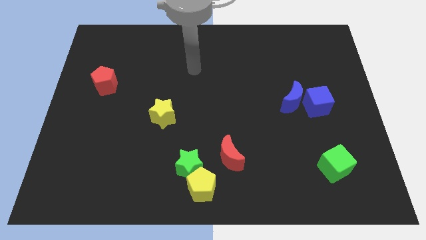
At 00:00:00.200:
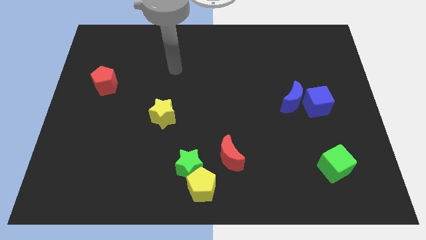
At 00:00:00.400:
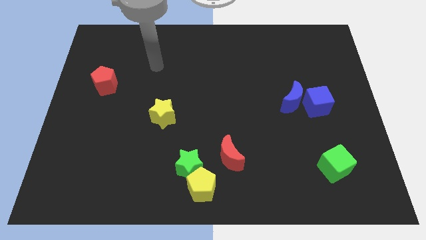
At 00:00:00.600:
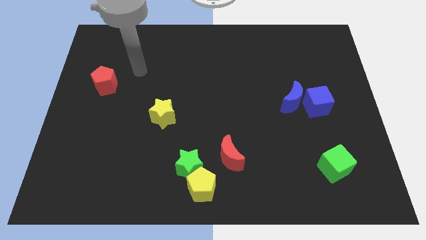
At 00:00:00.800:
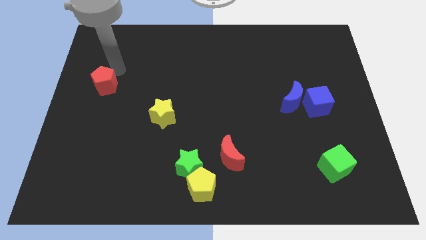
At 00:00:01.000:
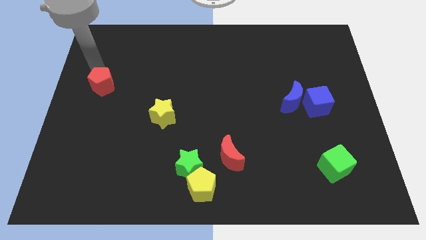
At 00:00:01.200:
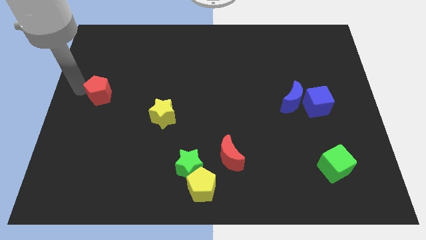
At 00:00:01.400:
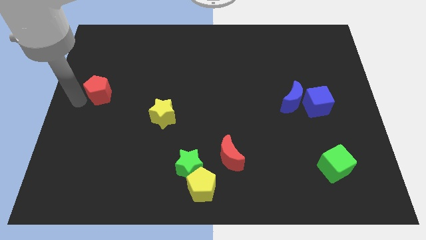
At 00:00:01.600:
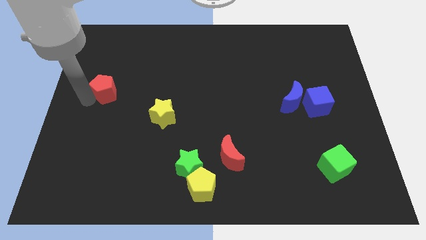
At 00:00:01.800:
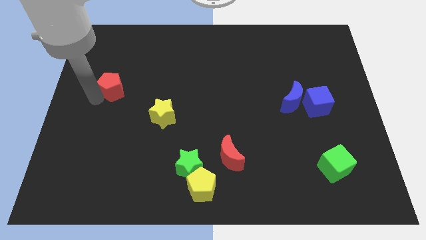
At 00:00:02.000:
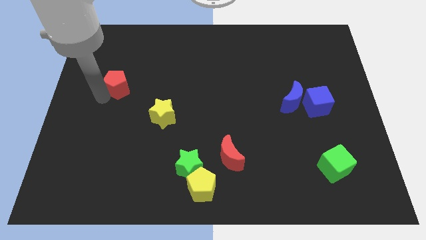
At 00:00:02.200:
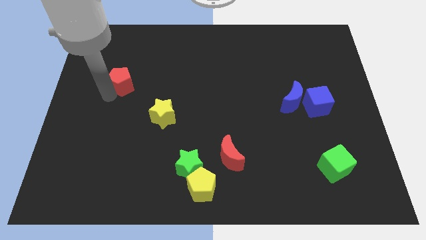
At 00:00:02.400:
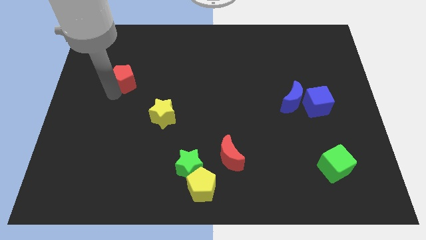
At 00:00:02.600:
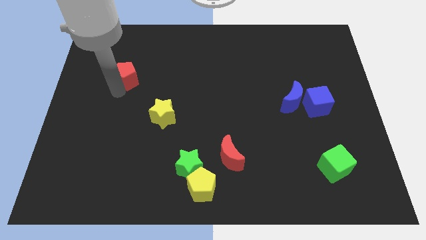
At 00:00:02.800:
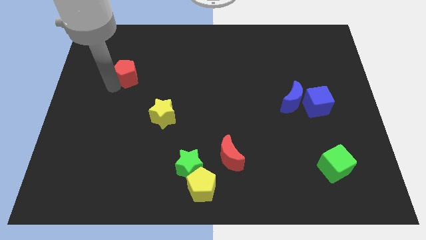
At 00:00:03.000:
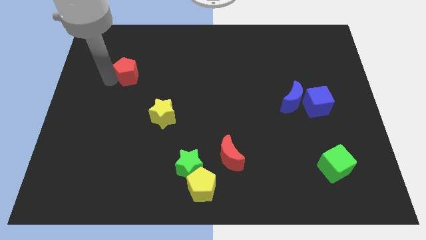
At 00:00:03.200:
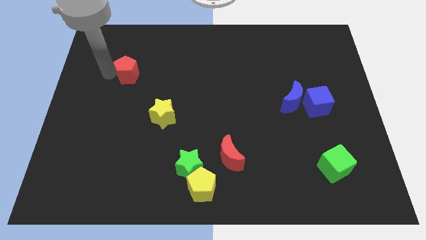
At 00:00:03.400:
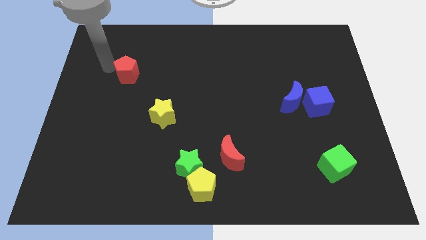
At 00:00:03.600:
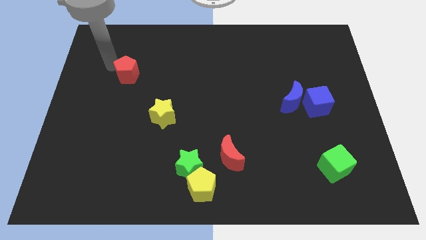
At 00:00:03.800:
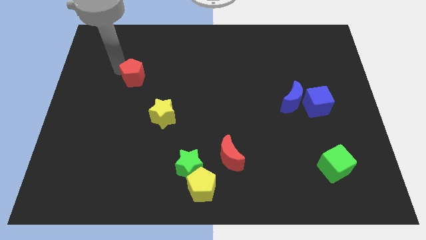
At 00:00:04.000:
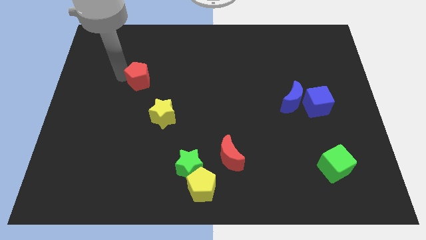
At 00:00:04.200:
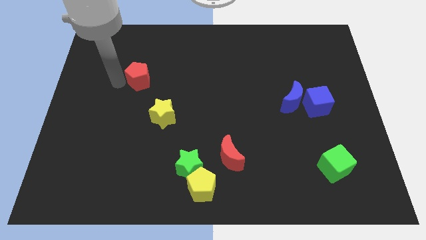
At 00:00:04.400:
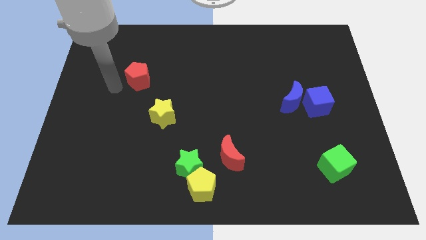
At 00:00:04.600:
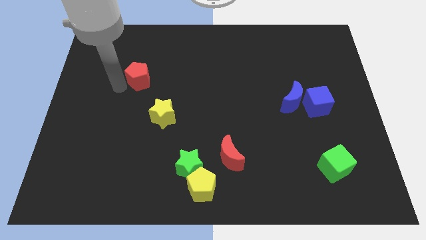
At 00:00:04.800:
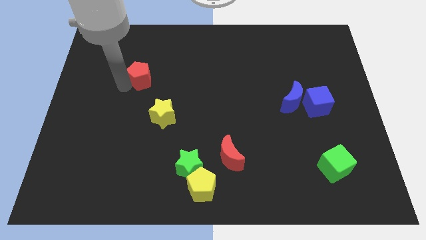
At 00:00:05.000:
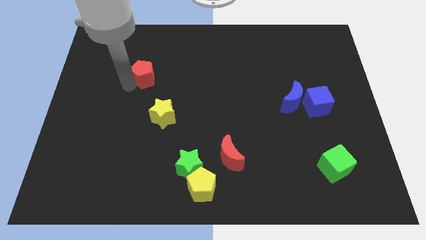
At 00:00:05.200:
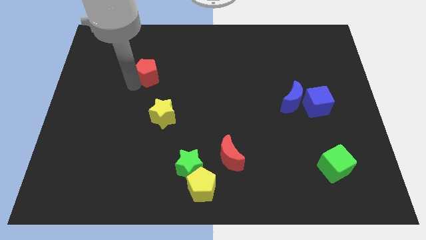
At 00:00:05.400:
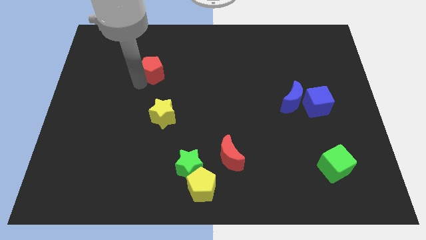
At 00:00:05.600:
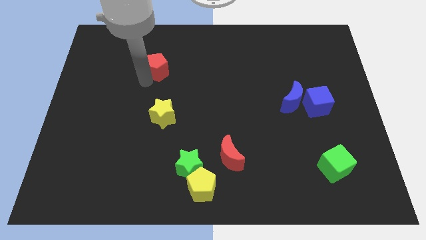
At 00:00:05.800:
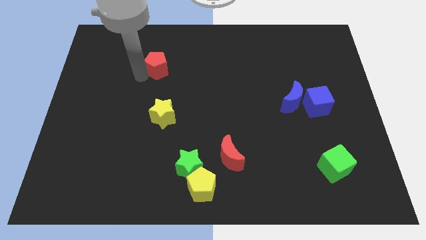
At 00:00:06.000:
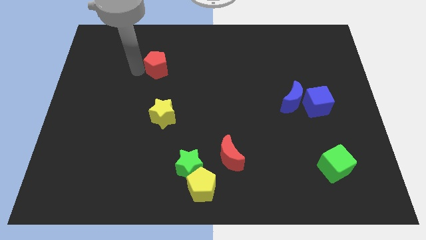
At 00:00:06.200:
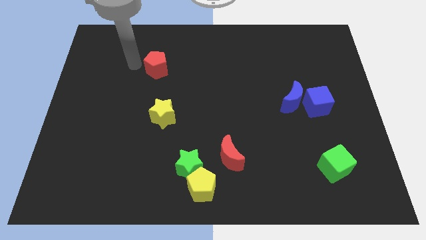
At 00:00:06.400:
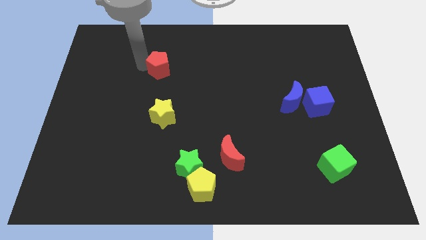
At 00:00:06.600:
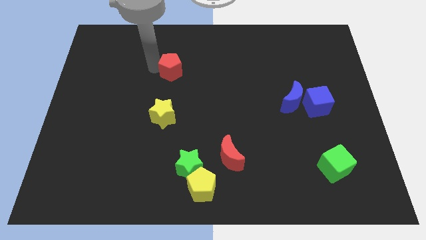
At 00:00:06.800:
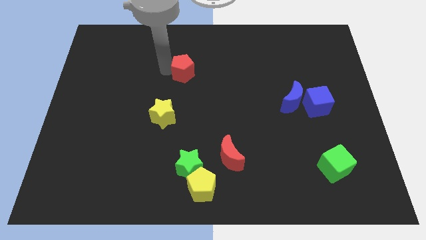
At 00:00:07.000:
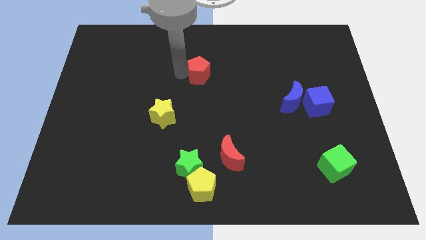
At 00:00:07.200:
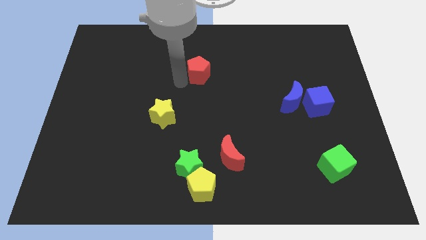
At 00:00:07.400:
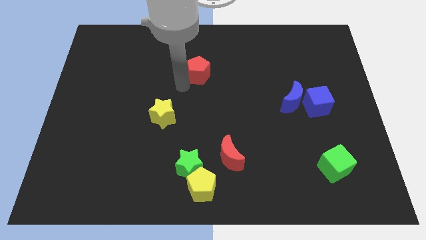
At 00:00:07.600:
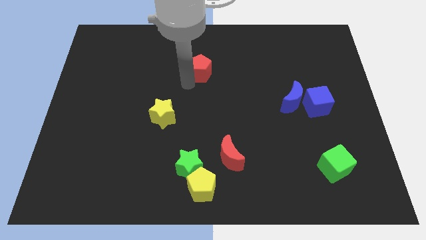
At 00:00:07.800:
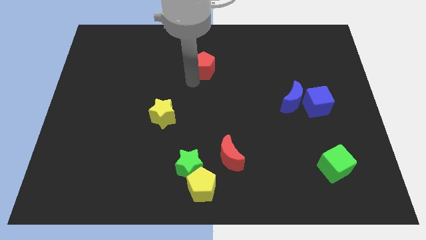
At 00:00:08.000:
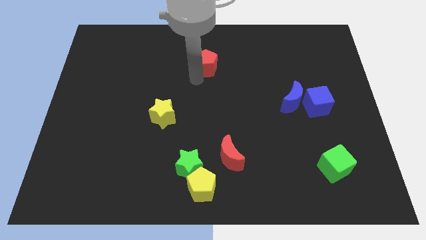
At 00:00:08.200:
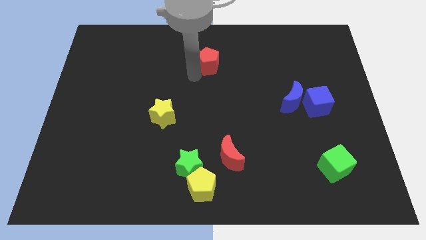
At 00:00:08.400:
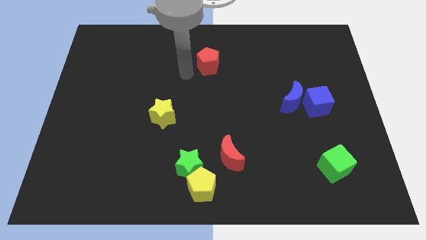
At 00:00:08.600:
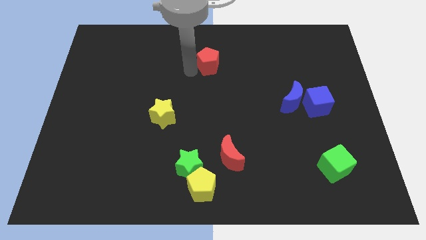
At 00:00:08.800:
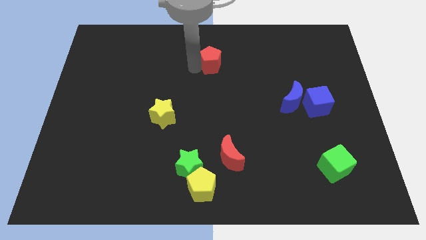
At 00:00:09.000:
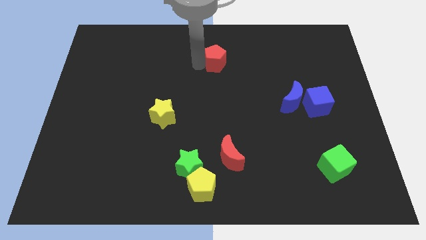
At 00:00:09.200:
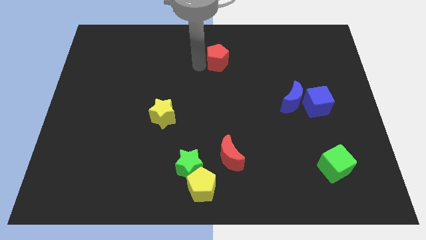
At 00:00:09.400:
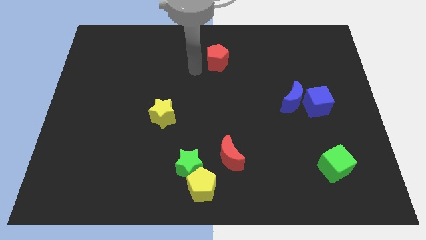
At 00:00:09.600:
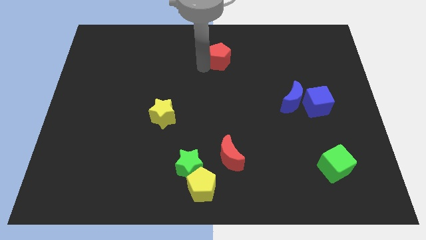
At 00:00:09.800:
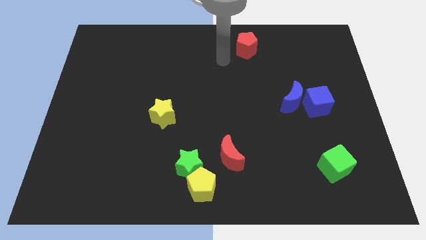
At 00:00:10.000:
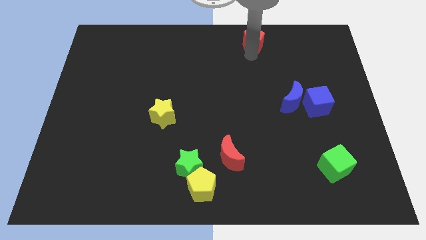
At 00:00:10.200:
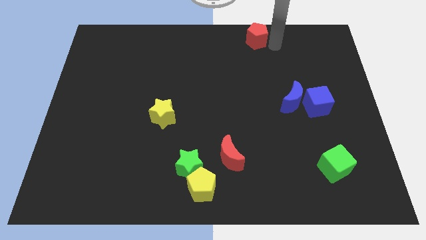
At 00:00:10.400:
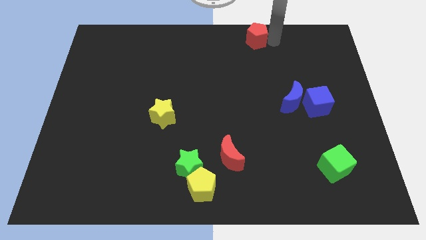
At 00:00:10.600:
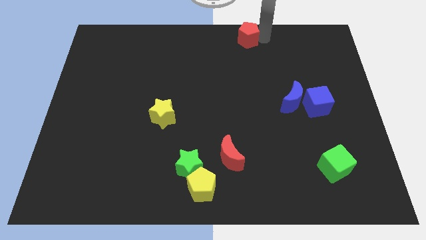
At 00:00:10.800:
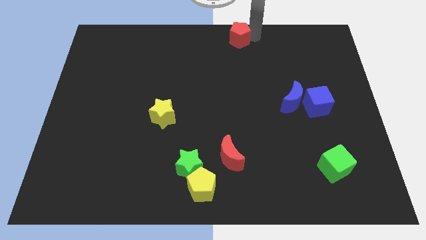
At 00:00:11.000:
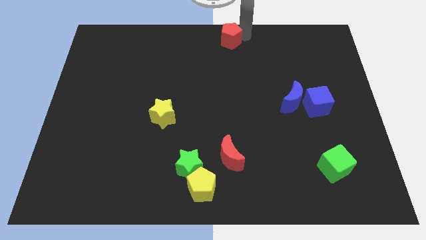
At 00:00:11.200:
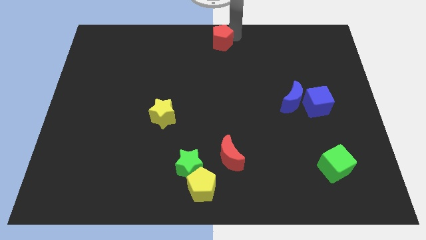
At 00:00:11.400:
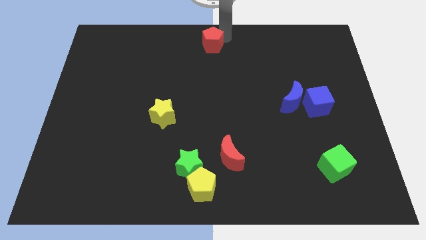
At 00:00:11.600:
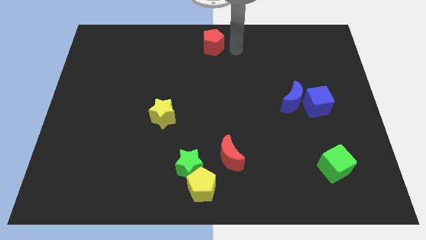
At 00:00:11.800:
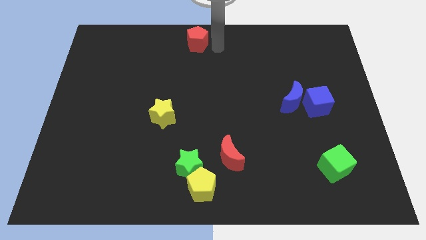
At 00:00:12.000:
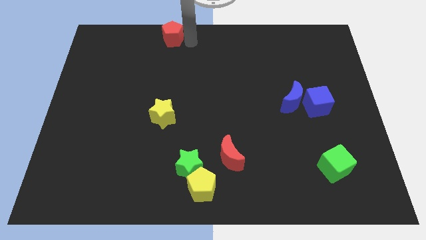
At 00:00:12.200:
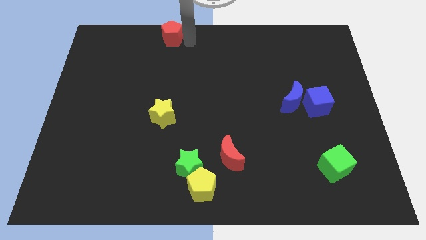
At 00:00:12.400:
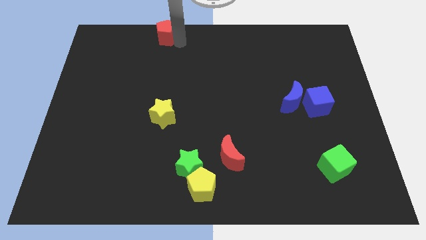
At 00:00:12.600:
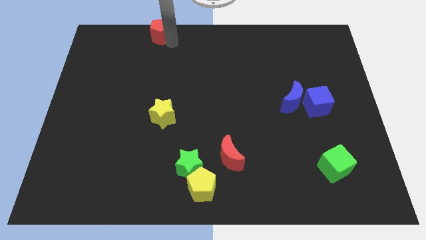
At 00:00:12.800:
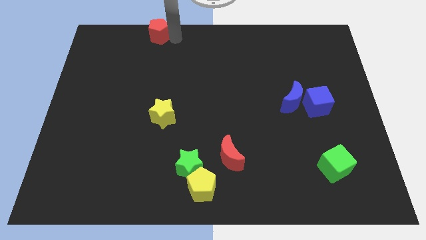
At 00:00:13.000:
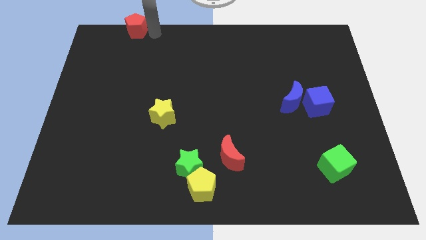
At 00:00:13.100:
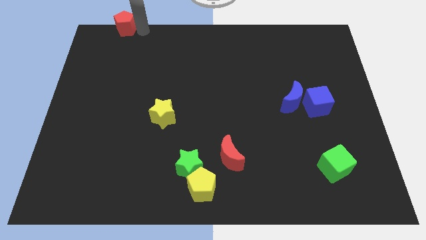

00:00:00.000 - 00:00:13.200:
move the red pentagon to the top left corner

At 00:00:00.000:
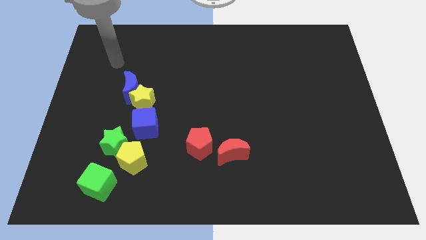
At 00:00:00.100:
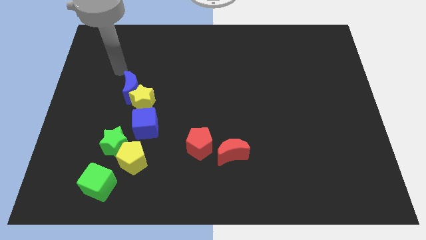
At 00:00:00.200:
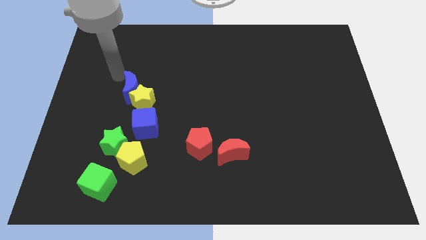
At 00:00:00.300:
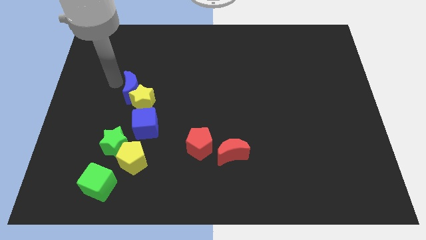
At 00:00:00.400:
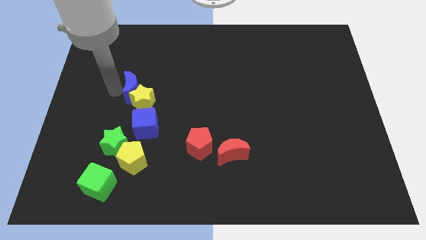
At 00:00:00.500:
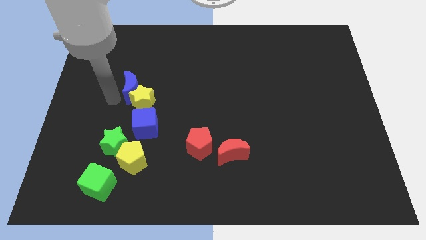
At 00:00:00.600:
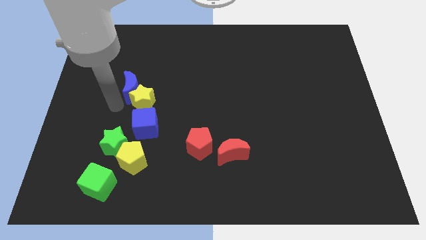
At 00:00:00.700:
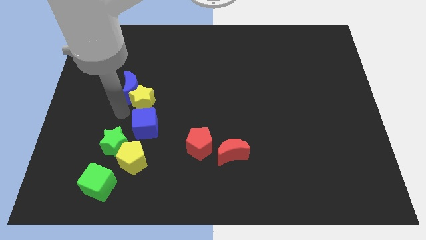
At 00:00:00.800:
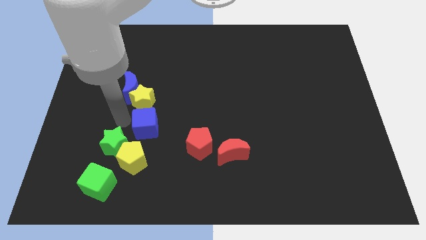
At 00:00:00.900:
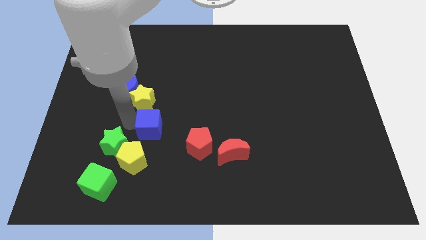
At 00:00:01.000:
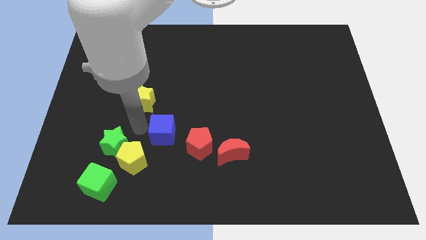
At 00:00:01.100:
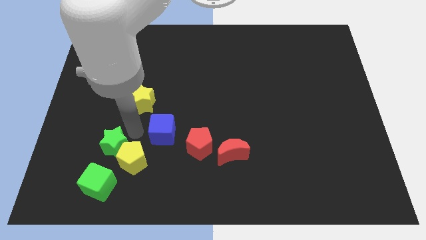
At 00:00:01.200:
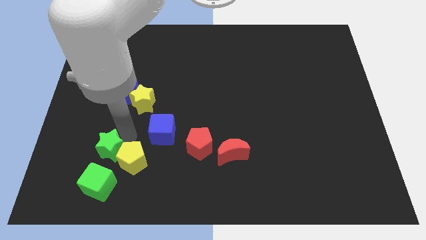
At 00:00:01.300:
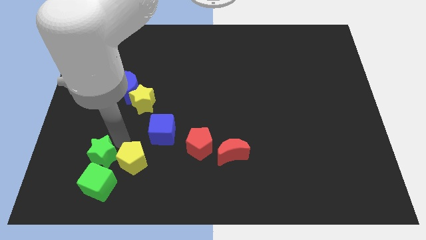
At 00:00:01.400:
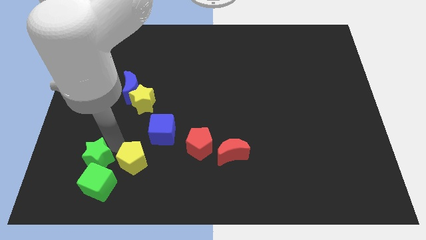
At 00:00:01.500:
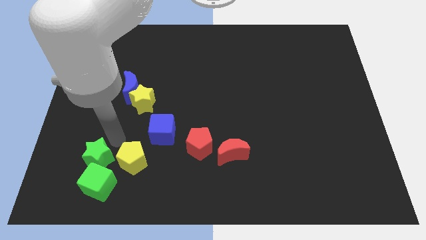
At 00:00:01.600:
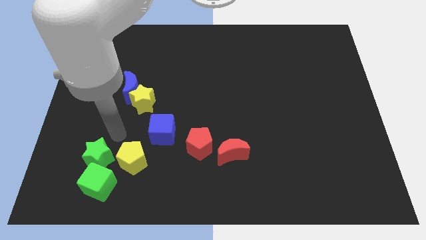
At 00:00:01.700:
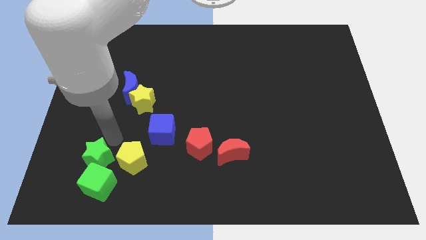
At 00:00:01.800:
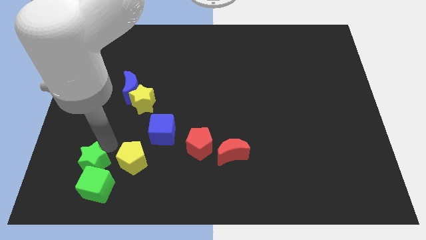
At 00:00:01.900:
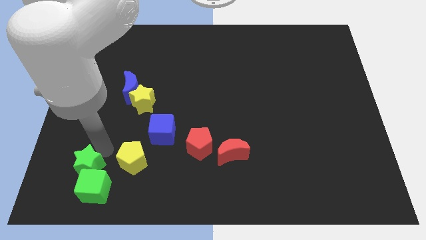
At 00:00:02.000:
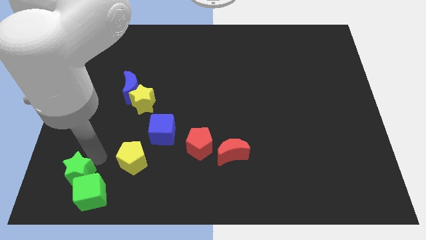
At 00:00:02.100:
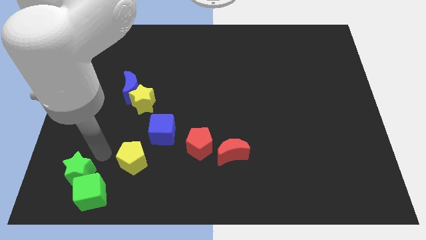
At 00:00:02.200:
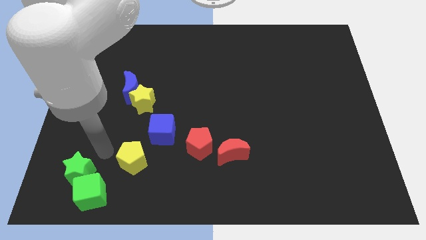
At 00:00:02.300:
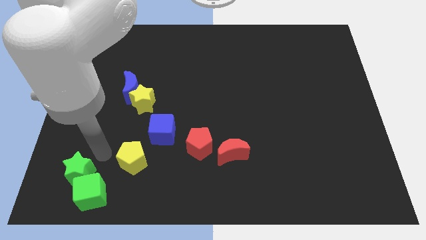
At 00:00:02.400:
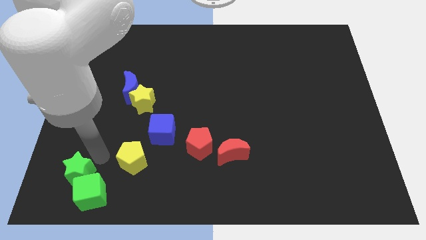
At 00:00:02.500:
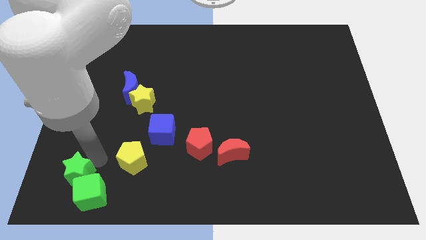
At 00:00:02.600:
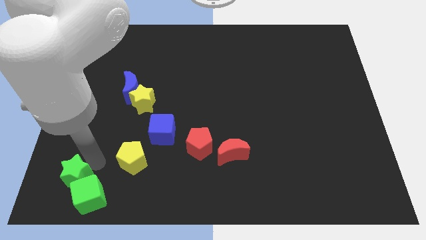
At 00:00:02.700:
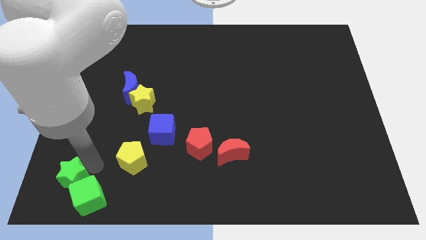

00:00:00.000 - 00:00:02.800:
push the green star to the bottom left of the board
